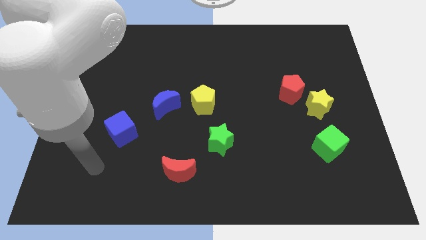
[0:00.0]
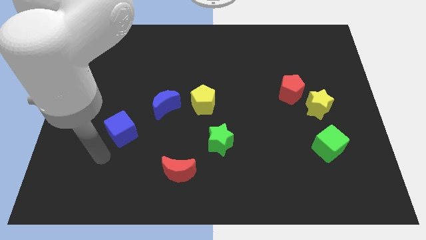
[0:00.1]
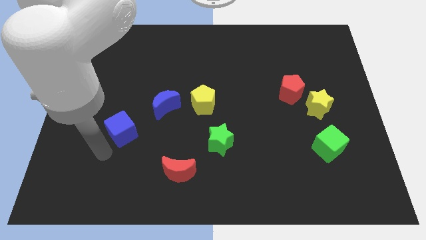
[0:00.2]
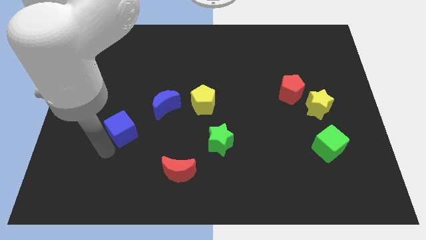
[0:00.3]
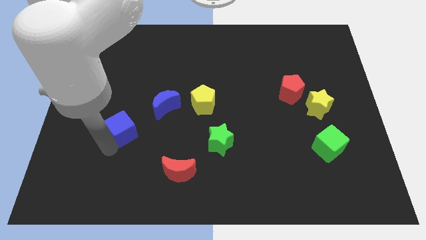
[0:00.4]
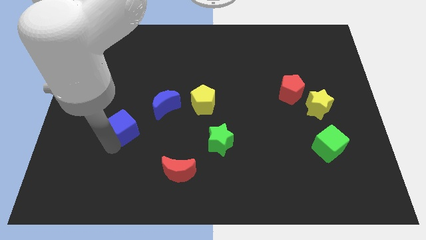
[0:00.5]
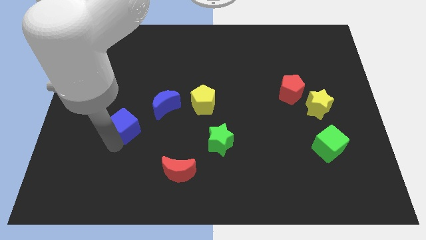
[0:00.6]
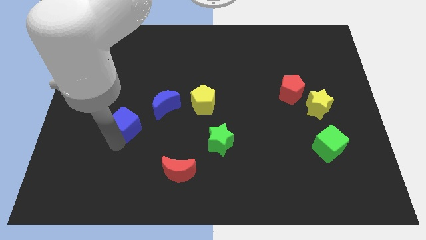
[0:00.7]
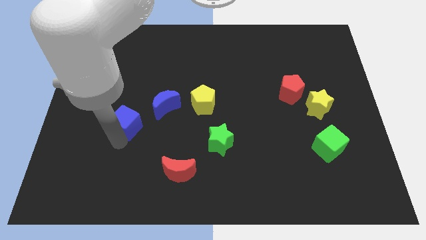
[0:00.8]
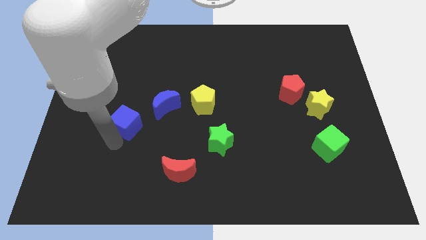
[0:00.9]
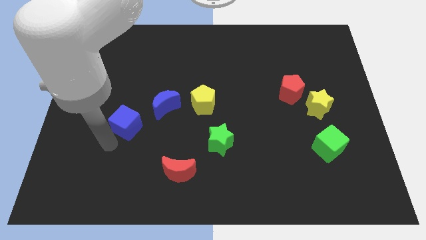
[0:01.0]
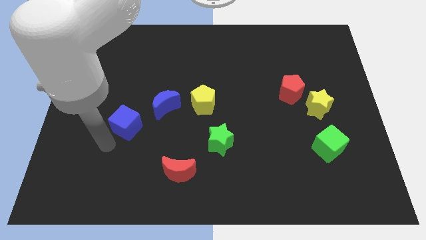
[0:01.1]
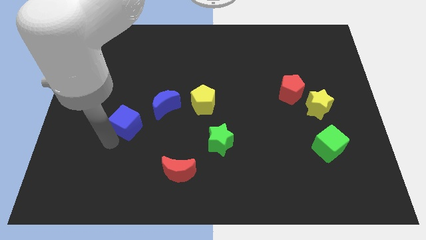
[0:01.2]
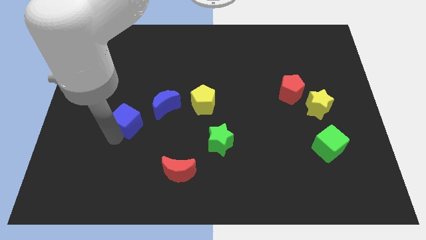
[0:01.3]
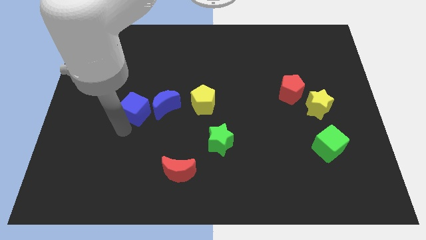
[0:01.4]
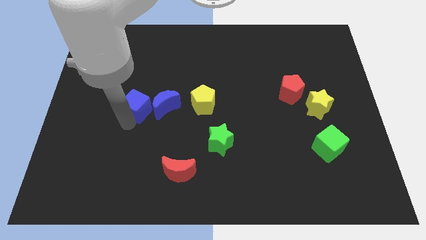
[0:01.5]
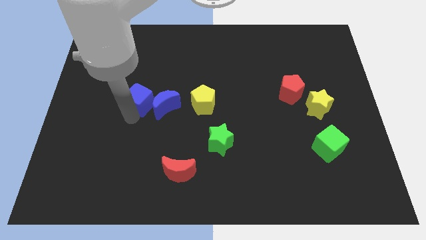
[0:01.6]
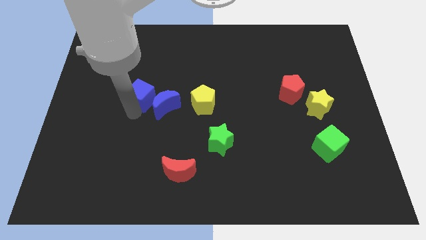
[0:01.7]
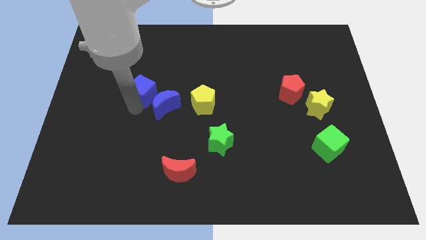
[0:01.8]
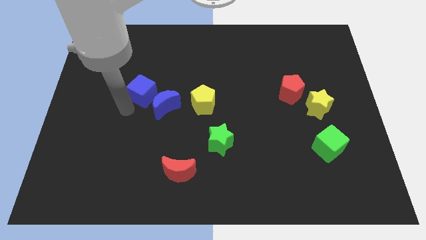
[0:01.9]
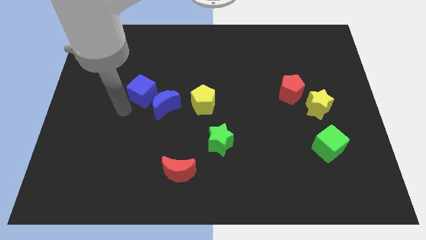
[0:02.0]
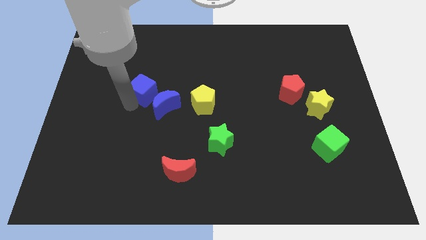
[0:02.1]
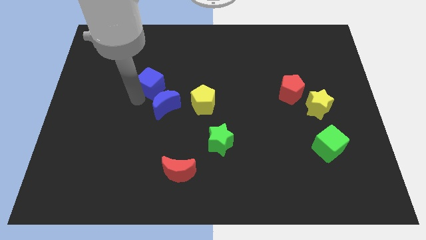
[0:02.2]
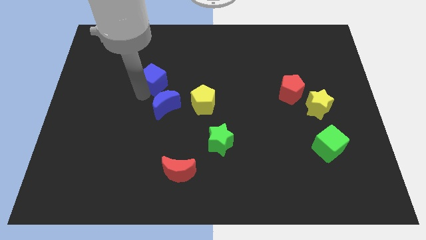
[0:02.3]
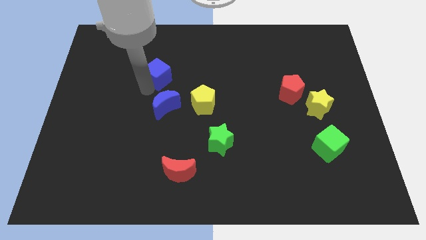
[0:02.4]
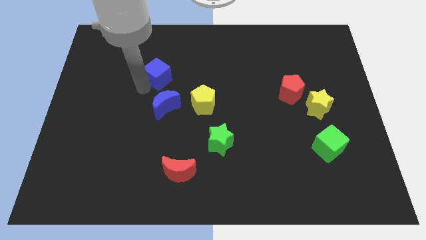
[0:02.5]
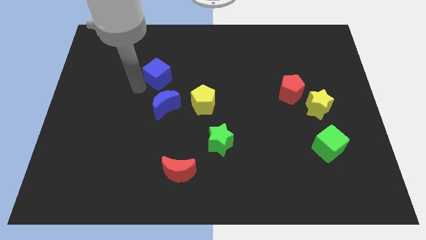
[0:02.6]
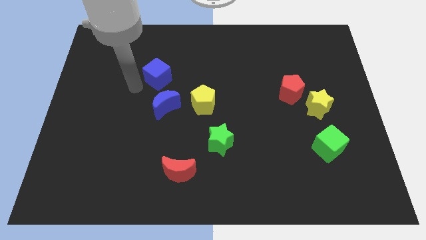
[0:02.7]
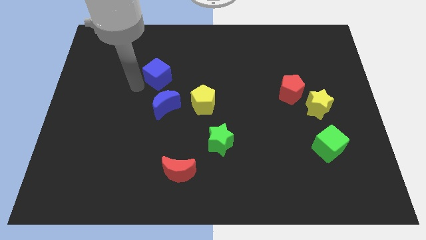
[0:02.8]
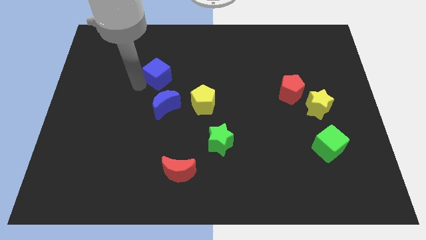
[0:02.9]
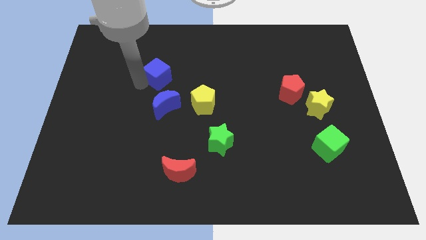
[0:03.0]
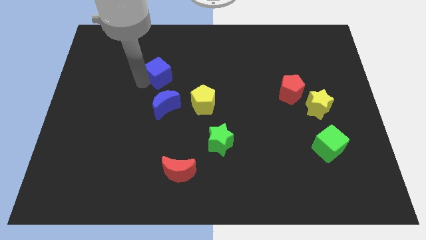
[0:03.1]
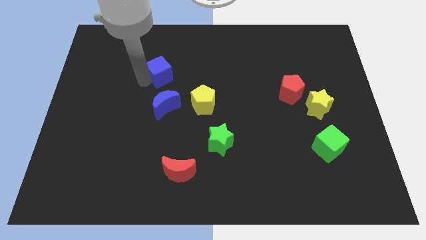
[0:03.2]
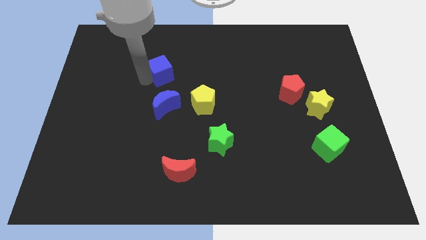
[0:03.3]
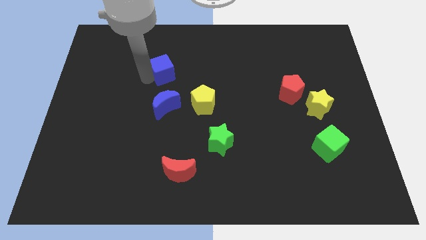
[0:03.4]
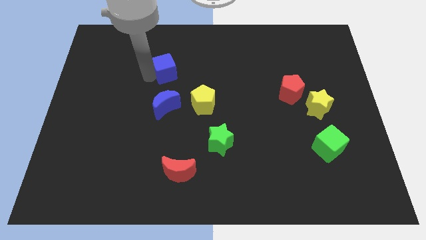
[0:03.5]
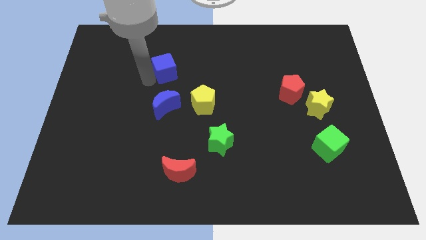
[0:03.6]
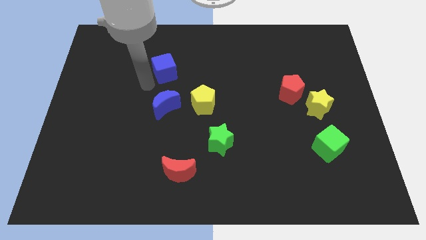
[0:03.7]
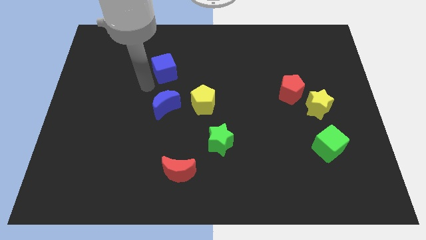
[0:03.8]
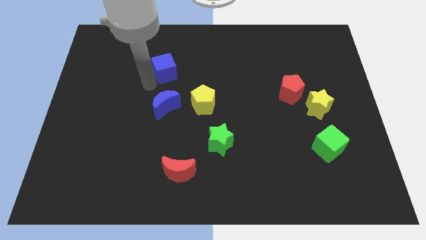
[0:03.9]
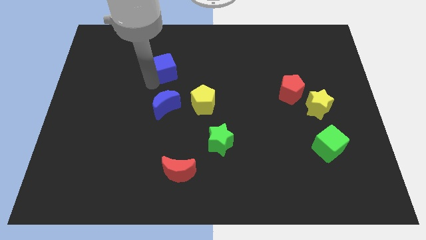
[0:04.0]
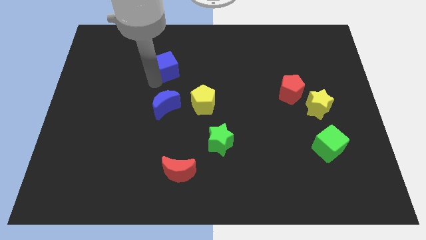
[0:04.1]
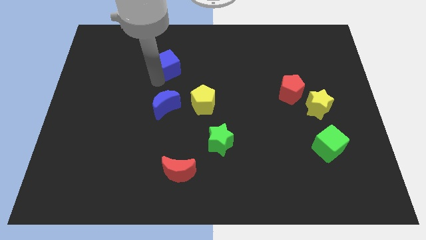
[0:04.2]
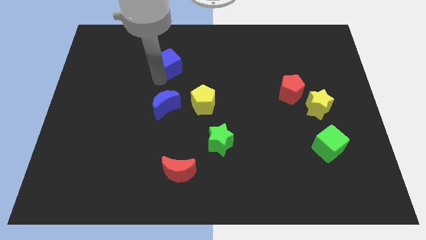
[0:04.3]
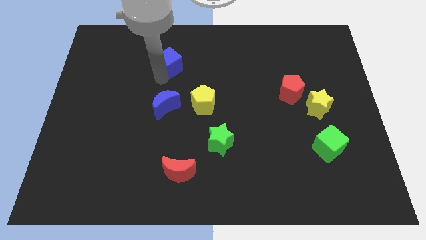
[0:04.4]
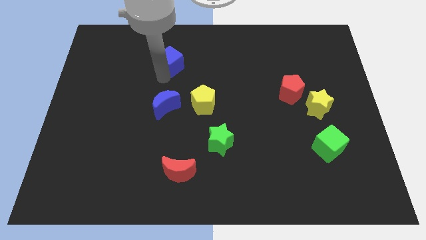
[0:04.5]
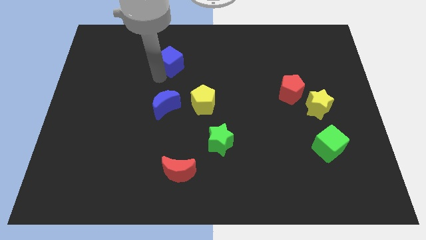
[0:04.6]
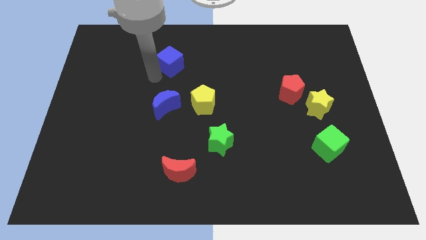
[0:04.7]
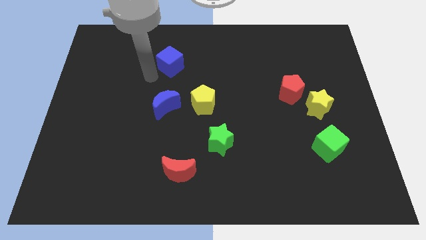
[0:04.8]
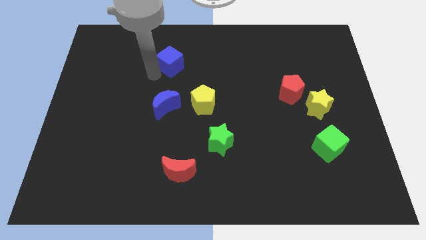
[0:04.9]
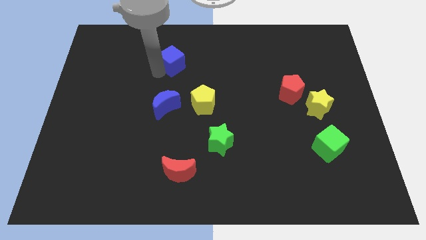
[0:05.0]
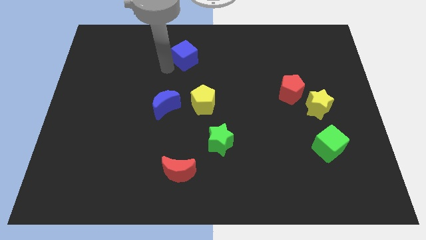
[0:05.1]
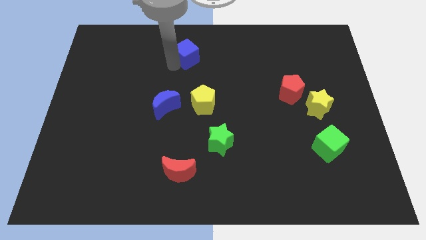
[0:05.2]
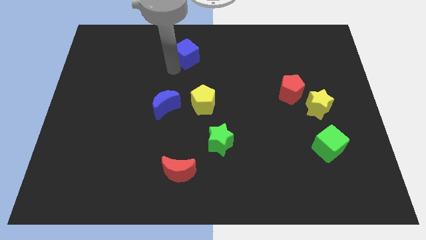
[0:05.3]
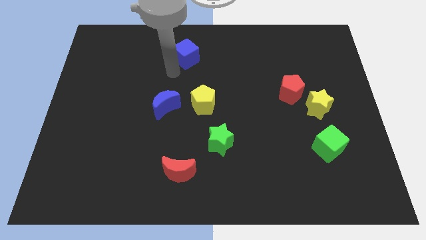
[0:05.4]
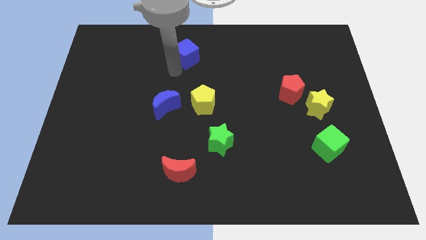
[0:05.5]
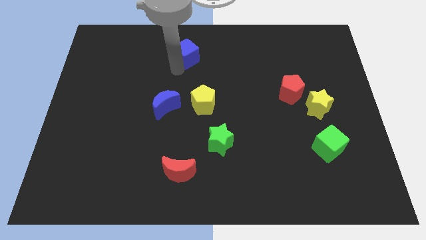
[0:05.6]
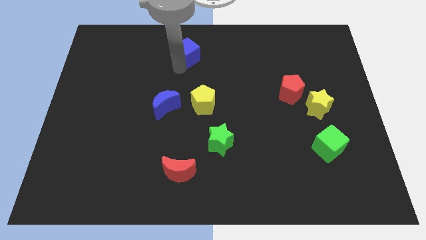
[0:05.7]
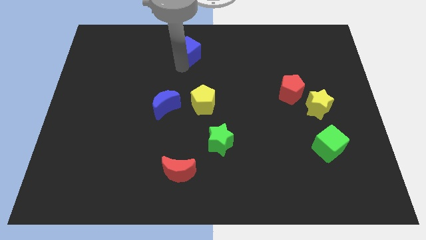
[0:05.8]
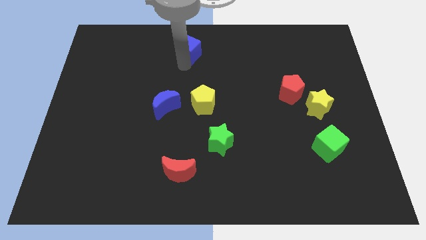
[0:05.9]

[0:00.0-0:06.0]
push the blue cube to the towards your base

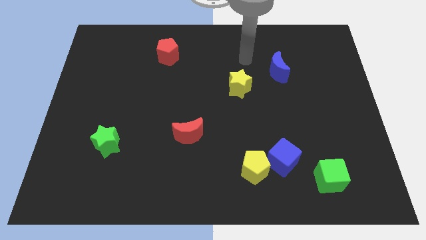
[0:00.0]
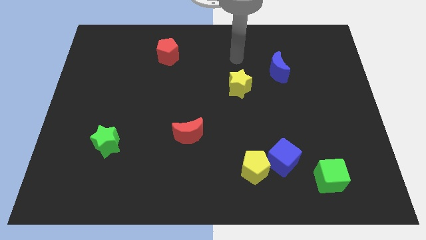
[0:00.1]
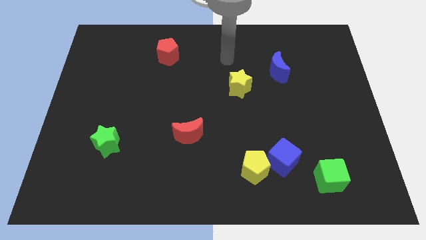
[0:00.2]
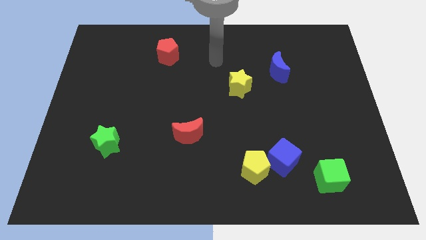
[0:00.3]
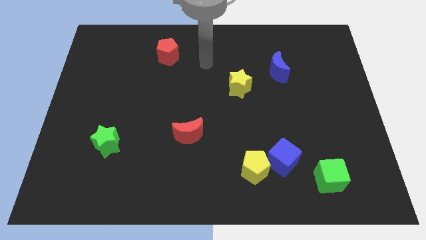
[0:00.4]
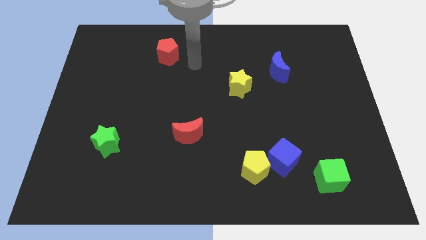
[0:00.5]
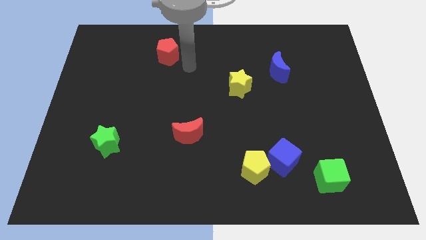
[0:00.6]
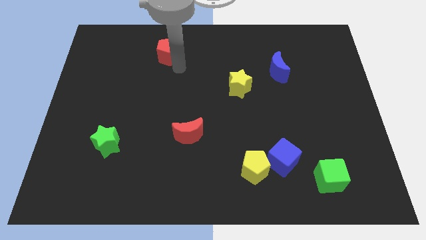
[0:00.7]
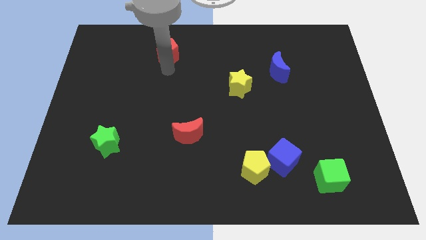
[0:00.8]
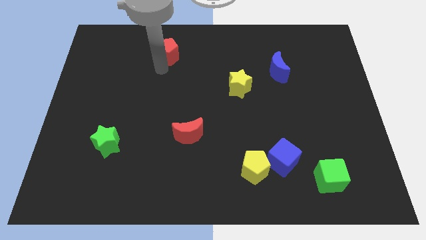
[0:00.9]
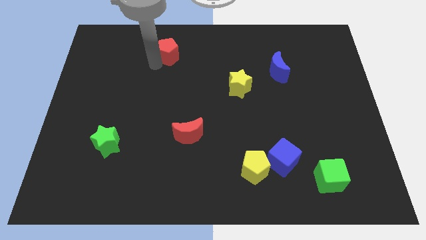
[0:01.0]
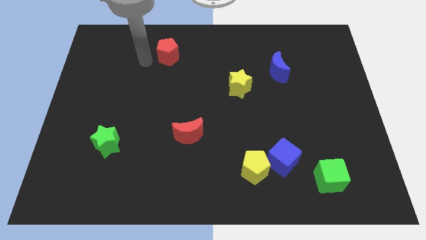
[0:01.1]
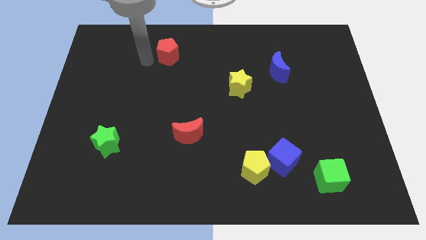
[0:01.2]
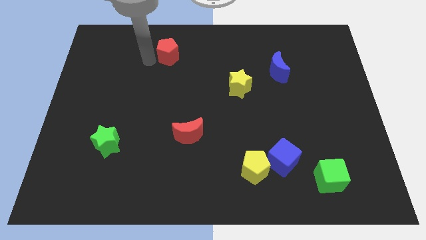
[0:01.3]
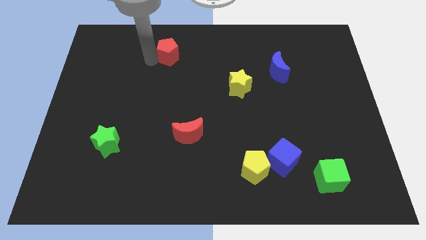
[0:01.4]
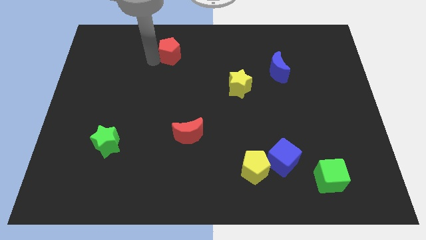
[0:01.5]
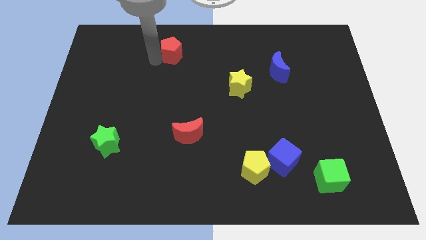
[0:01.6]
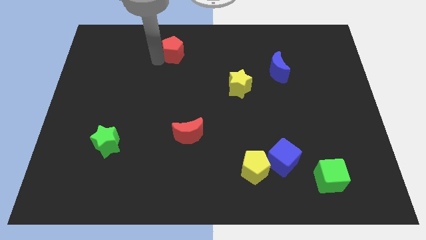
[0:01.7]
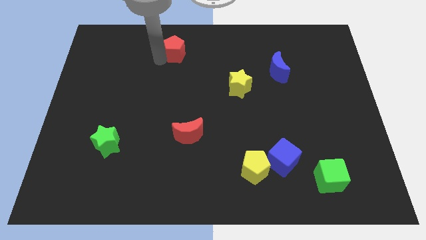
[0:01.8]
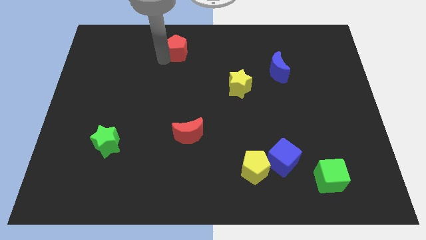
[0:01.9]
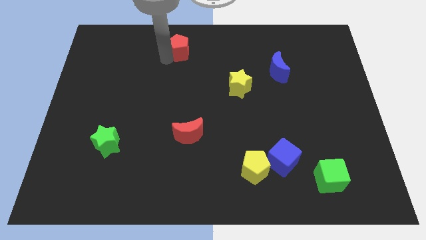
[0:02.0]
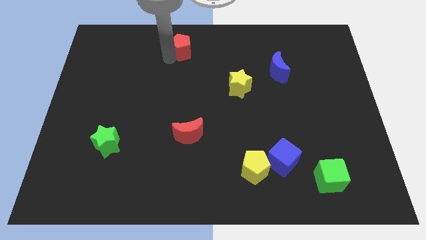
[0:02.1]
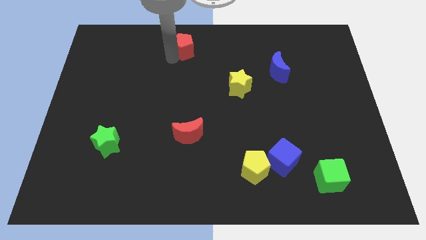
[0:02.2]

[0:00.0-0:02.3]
slide the red pentagon to the towards your base
